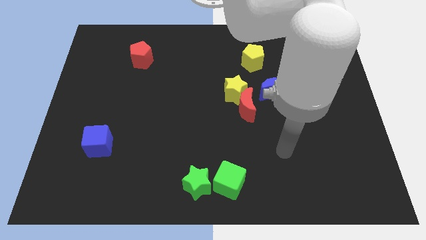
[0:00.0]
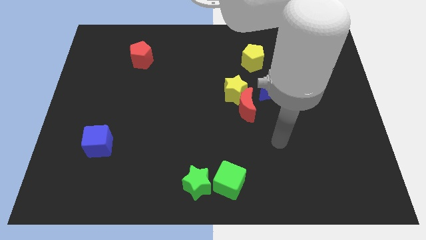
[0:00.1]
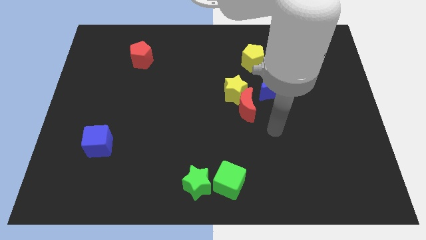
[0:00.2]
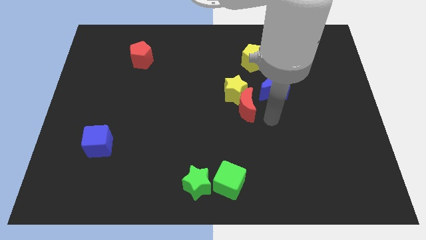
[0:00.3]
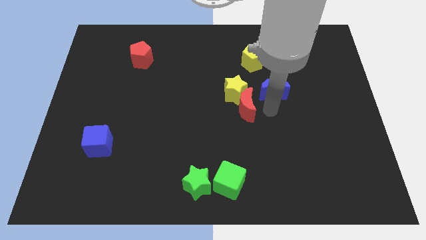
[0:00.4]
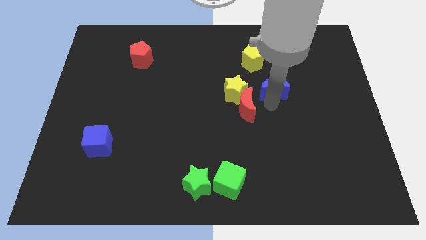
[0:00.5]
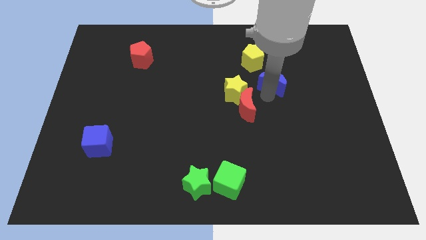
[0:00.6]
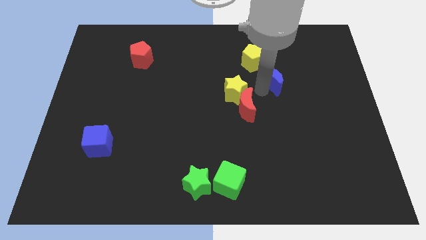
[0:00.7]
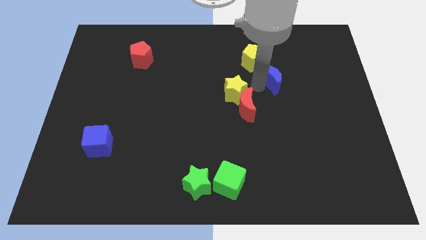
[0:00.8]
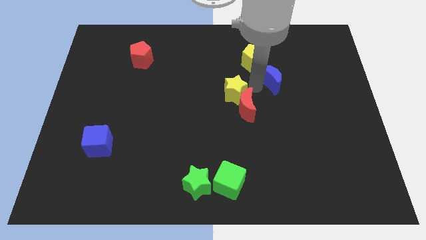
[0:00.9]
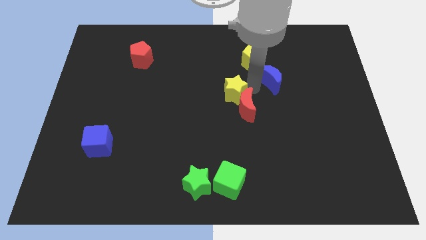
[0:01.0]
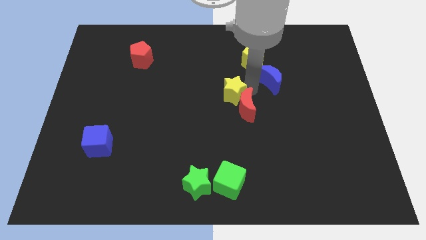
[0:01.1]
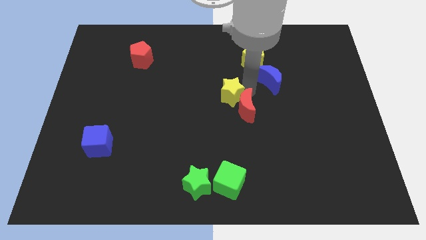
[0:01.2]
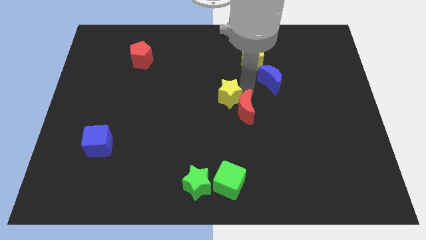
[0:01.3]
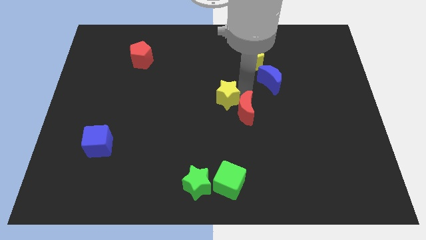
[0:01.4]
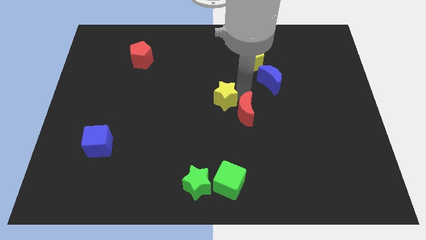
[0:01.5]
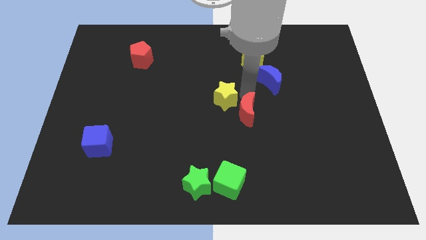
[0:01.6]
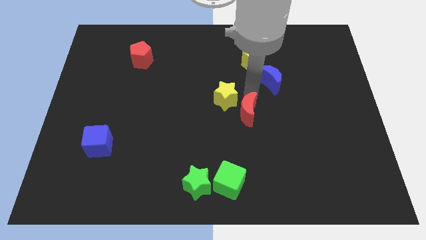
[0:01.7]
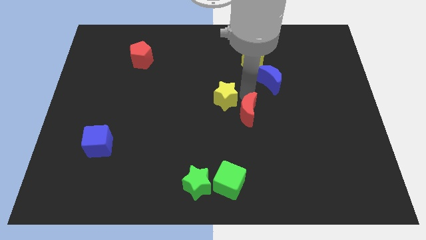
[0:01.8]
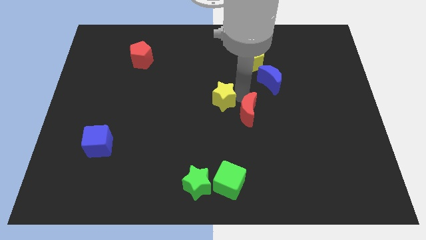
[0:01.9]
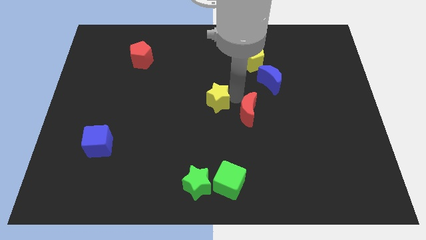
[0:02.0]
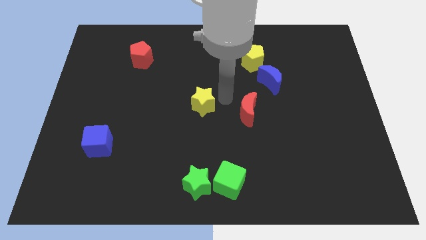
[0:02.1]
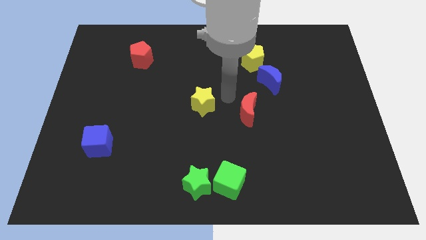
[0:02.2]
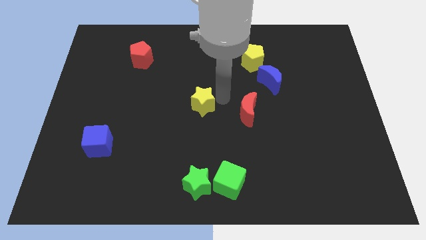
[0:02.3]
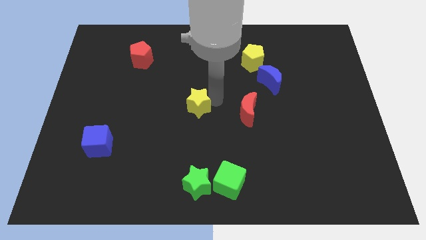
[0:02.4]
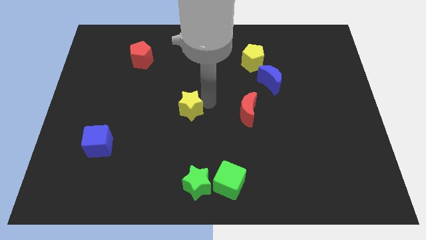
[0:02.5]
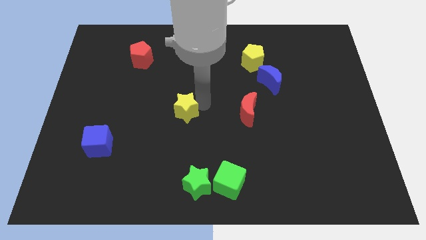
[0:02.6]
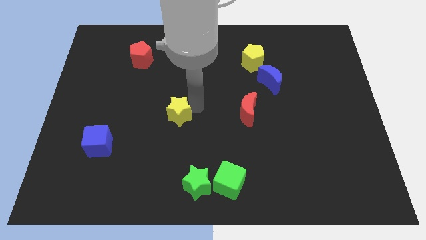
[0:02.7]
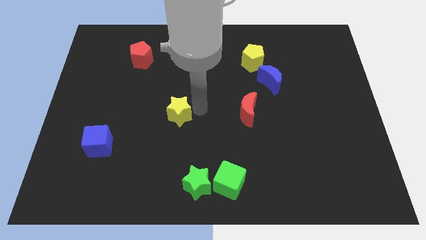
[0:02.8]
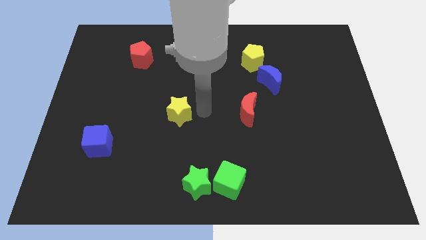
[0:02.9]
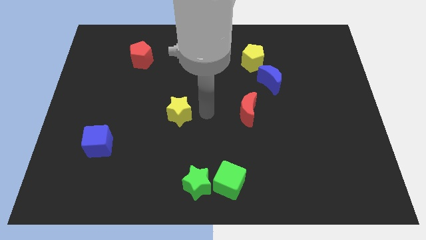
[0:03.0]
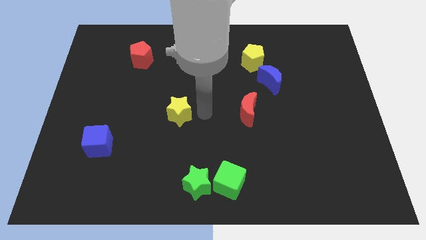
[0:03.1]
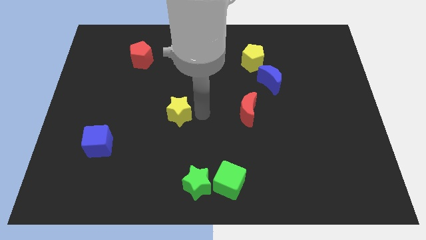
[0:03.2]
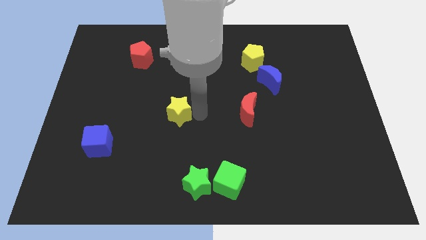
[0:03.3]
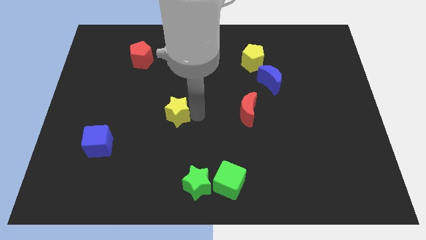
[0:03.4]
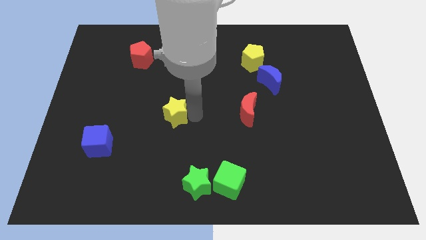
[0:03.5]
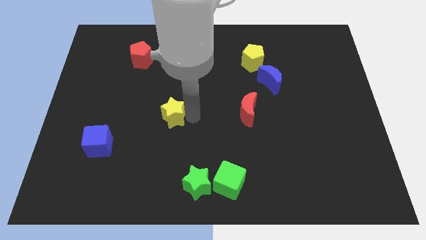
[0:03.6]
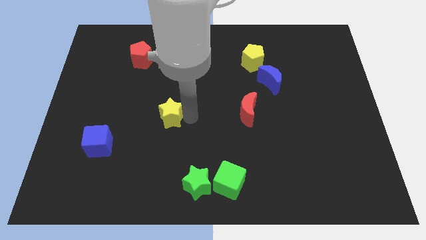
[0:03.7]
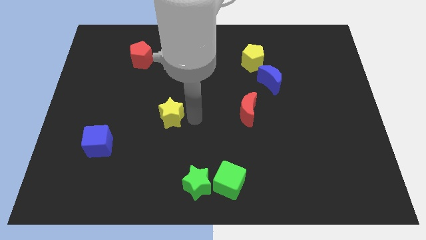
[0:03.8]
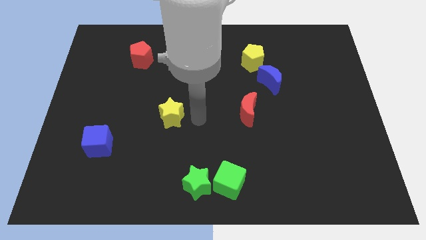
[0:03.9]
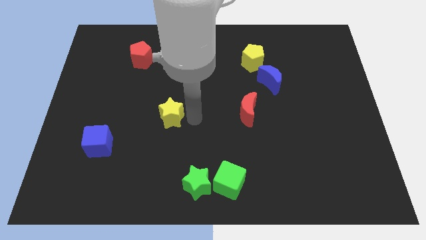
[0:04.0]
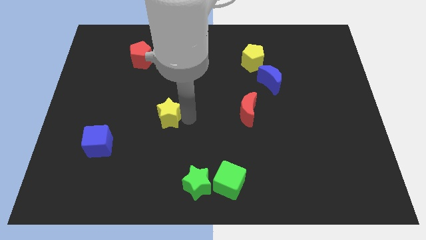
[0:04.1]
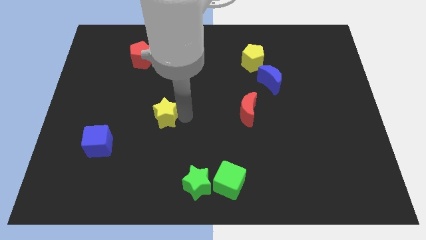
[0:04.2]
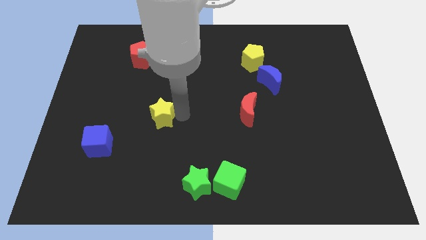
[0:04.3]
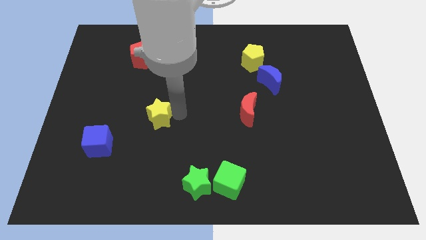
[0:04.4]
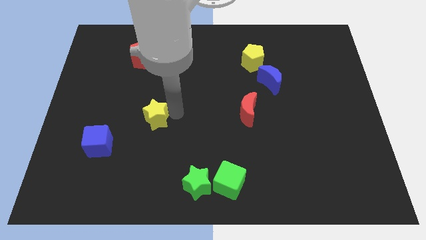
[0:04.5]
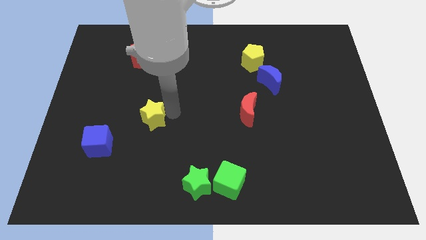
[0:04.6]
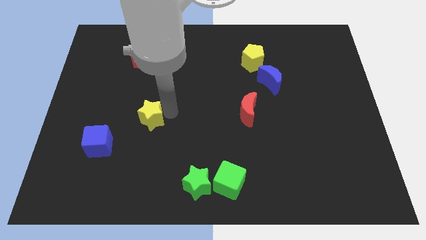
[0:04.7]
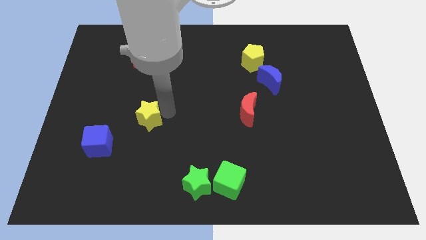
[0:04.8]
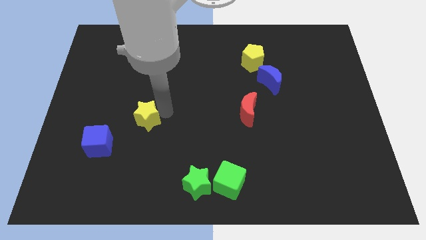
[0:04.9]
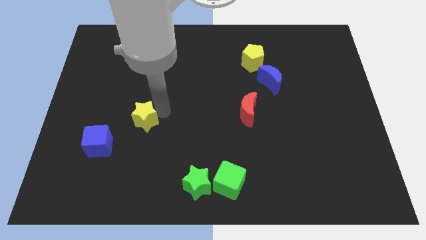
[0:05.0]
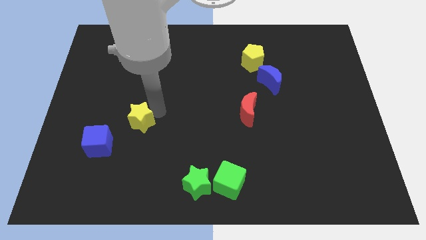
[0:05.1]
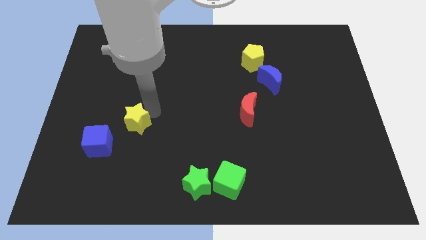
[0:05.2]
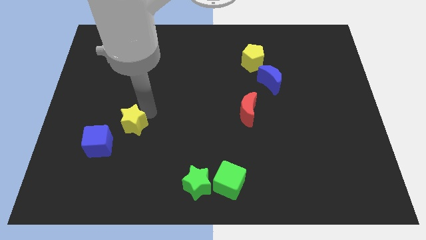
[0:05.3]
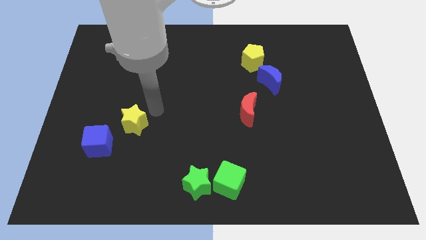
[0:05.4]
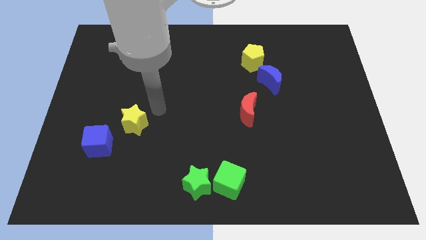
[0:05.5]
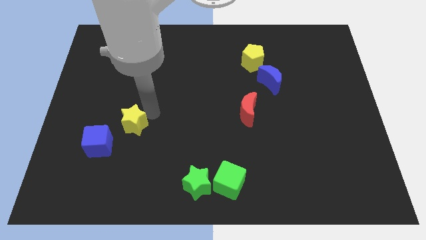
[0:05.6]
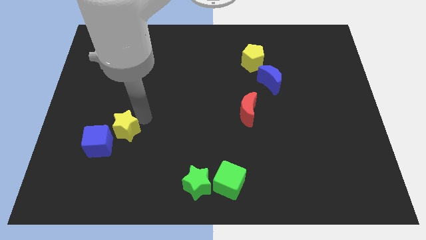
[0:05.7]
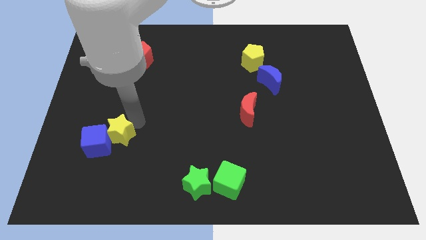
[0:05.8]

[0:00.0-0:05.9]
put the yellow star next to the blue cube

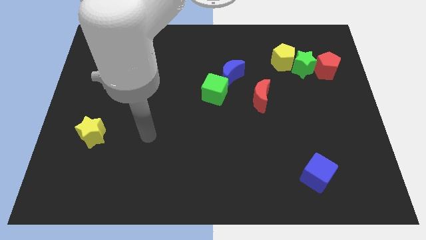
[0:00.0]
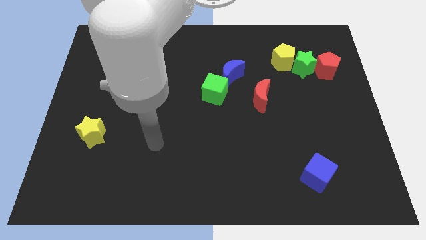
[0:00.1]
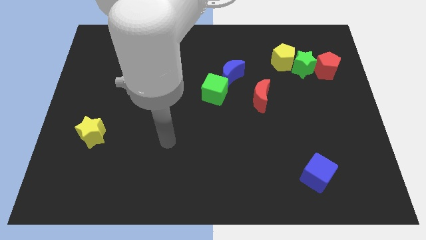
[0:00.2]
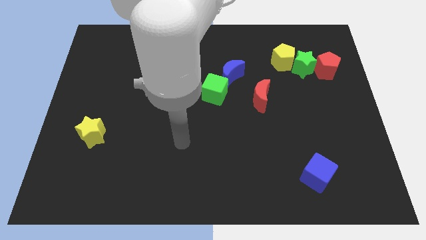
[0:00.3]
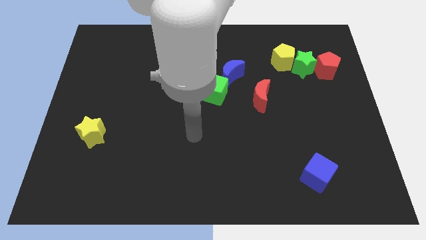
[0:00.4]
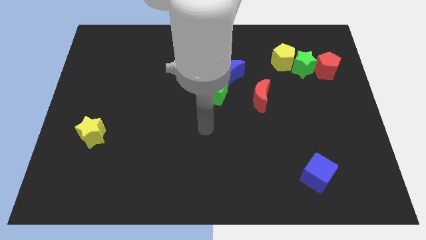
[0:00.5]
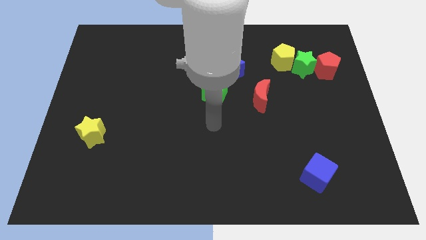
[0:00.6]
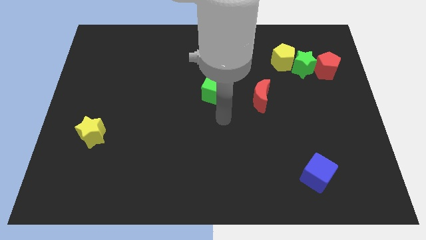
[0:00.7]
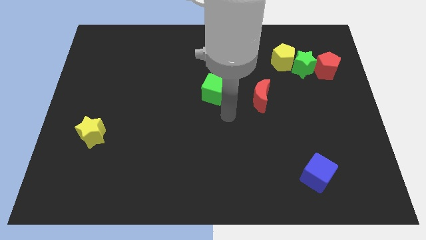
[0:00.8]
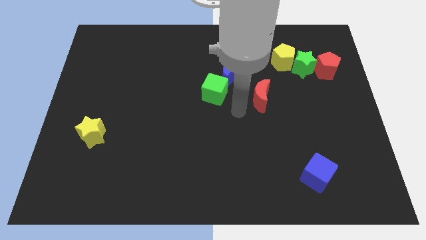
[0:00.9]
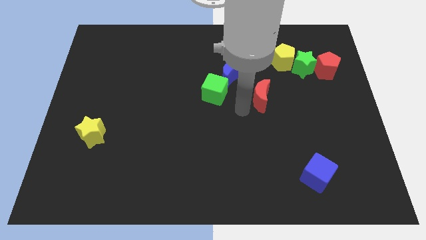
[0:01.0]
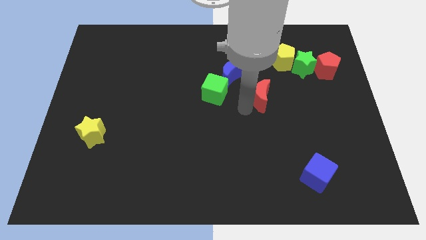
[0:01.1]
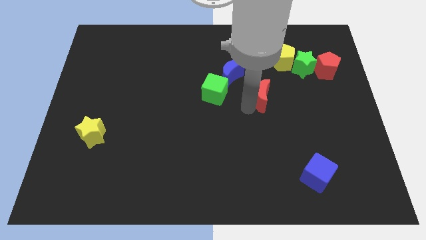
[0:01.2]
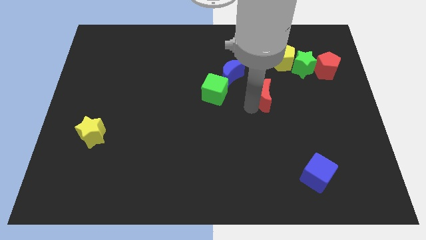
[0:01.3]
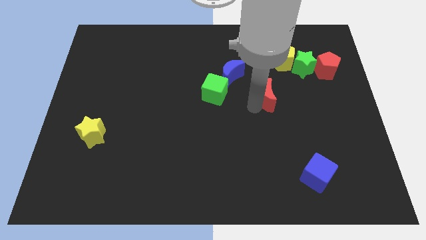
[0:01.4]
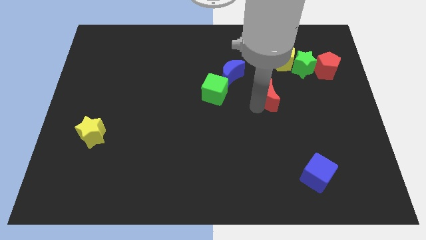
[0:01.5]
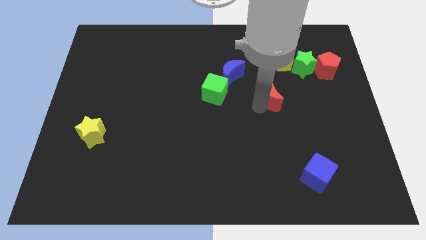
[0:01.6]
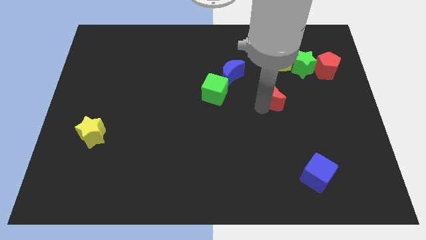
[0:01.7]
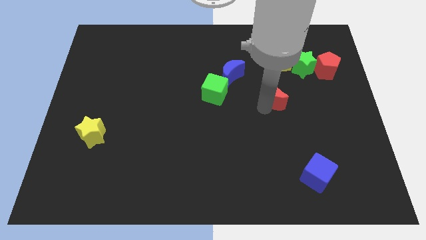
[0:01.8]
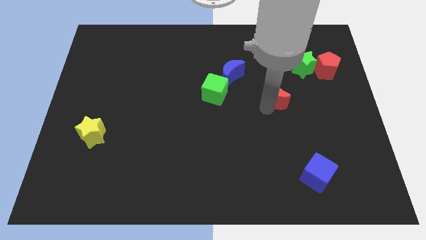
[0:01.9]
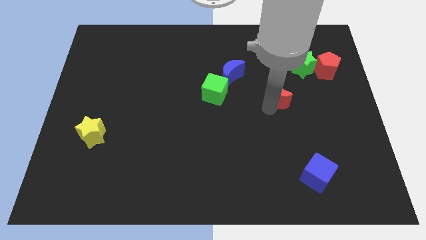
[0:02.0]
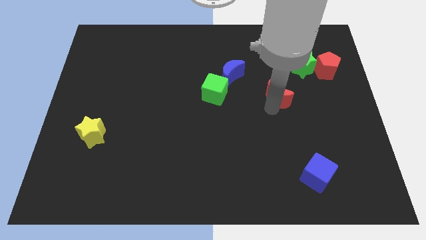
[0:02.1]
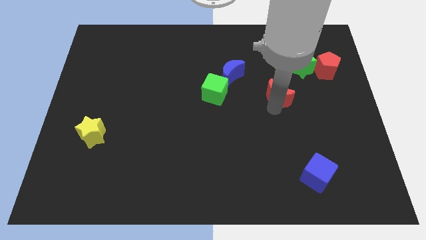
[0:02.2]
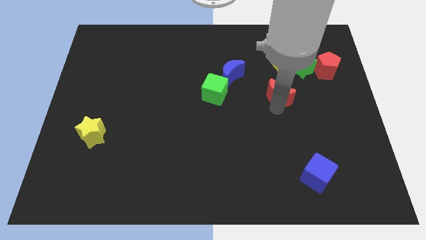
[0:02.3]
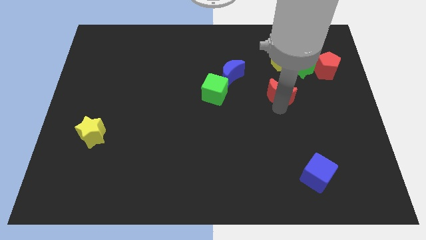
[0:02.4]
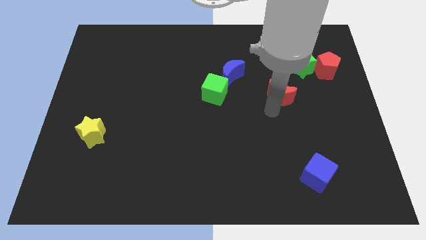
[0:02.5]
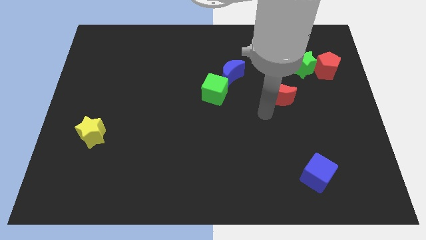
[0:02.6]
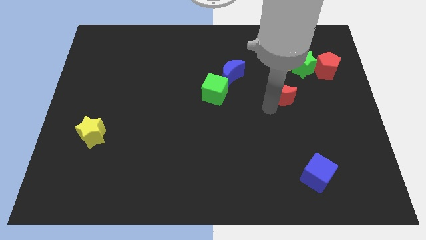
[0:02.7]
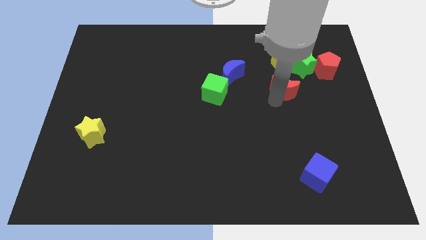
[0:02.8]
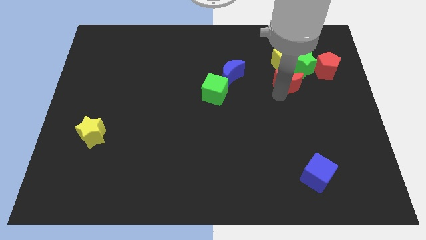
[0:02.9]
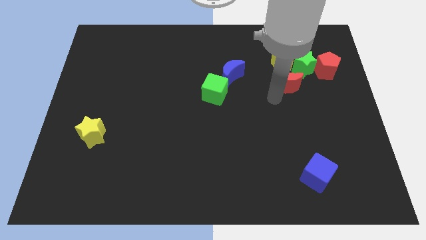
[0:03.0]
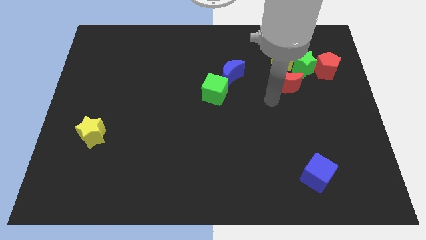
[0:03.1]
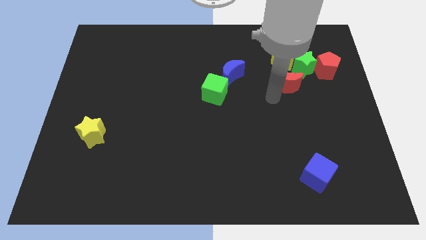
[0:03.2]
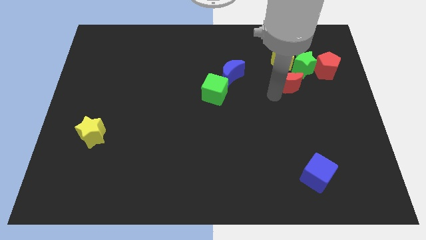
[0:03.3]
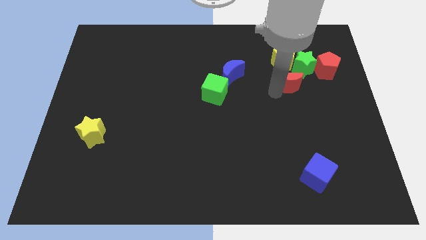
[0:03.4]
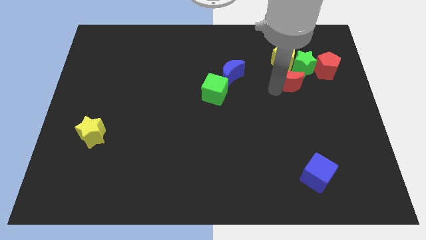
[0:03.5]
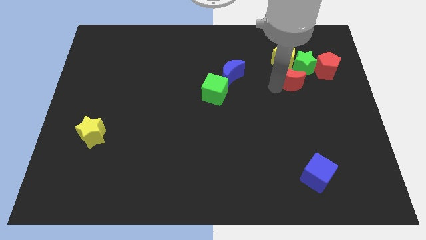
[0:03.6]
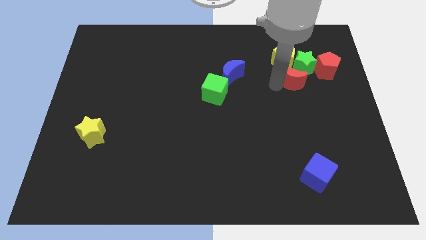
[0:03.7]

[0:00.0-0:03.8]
slide the red moon towards the green star
